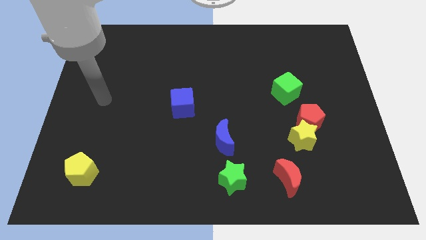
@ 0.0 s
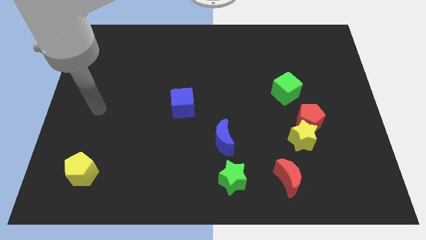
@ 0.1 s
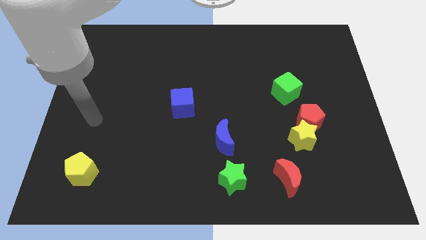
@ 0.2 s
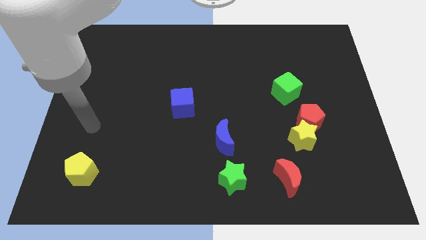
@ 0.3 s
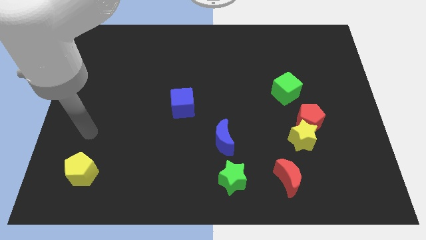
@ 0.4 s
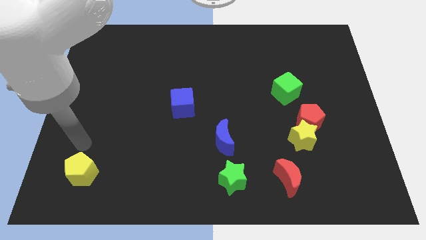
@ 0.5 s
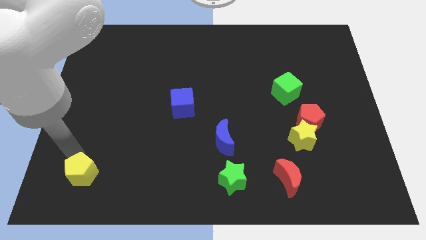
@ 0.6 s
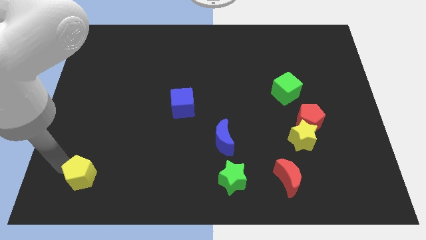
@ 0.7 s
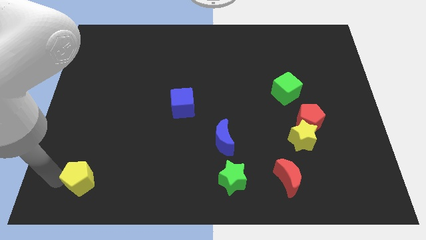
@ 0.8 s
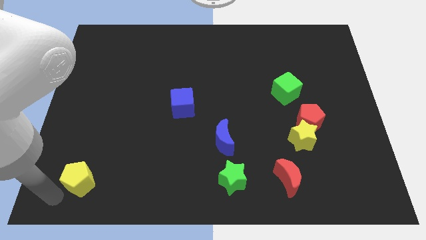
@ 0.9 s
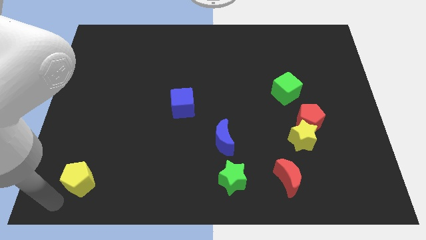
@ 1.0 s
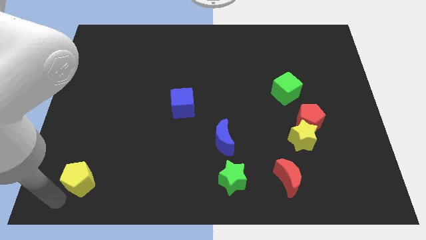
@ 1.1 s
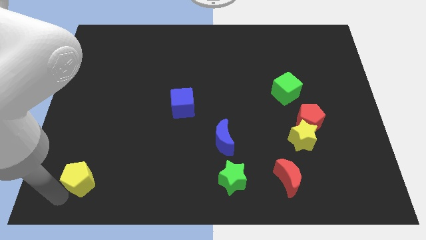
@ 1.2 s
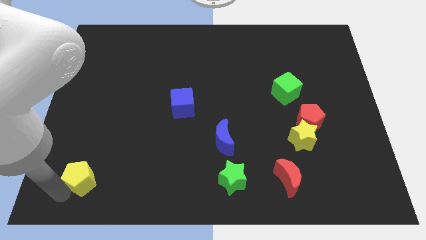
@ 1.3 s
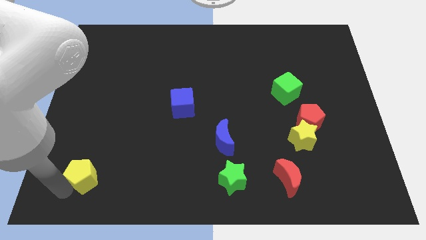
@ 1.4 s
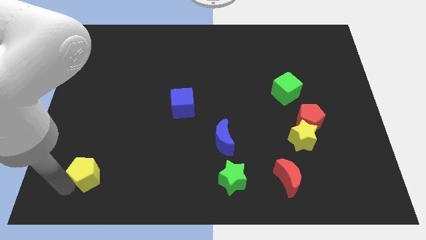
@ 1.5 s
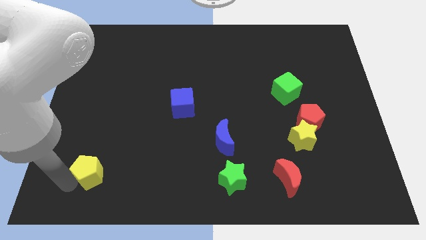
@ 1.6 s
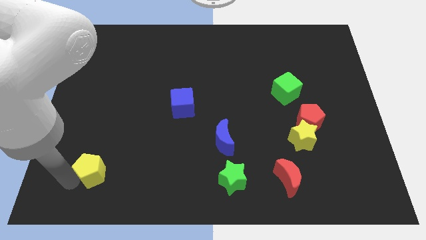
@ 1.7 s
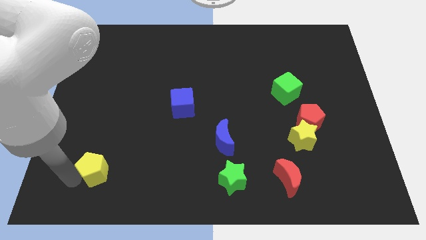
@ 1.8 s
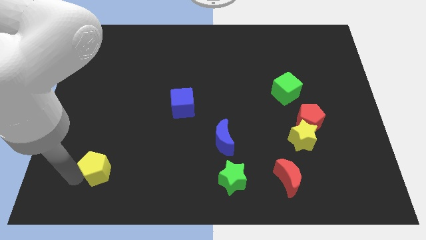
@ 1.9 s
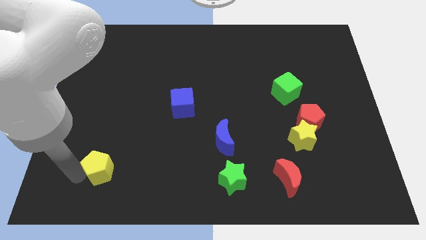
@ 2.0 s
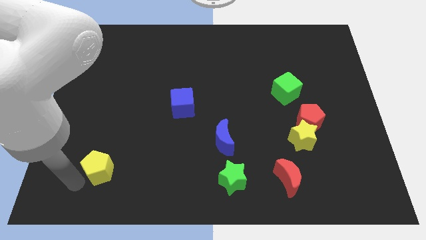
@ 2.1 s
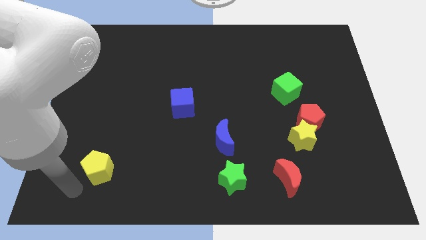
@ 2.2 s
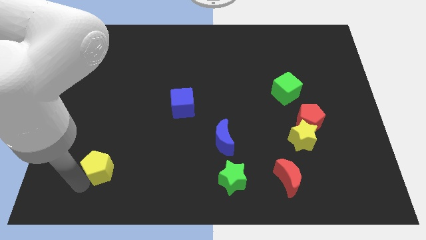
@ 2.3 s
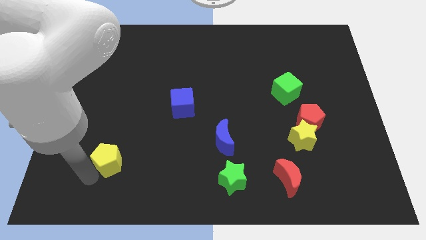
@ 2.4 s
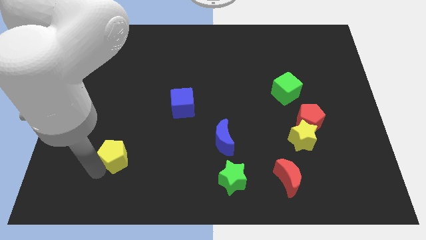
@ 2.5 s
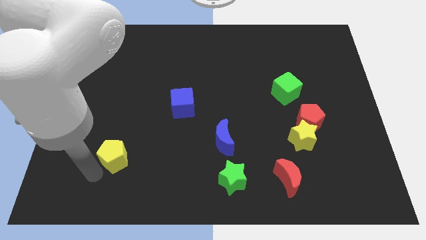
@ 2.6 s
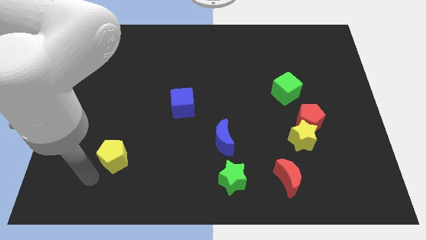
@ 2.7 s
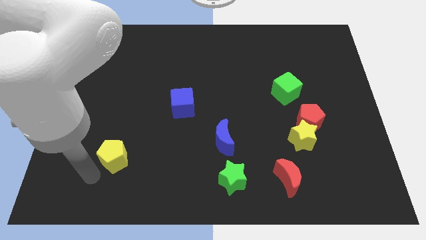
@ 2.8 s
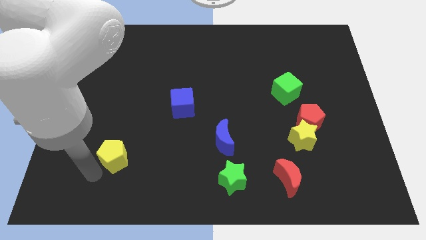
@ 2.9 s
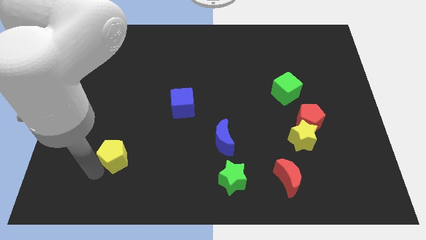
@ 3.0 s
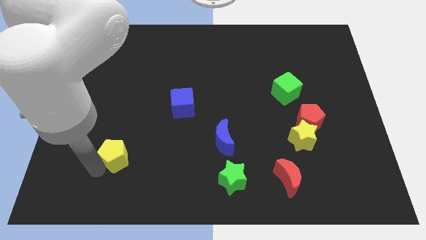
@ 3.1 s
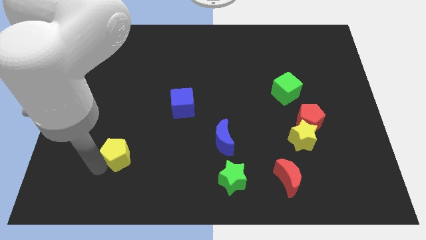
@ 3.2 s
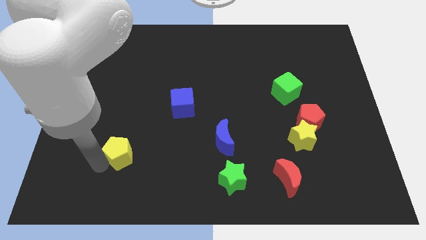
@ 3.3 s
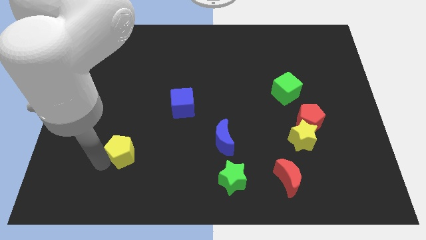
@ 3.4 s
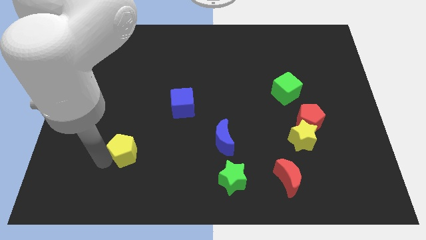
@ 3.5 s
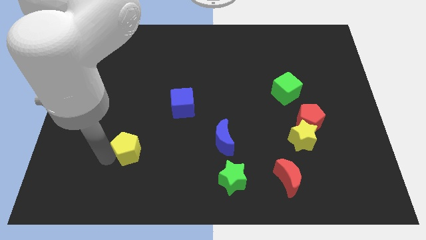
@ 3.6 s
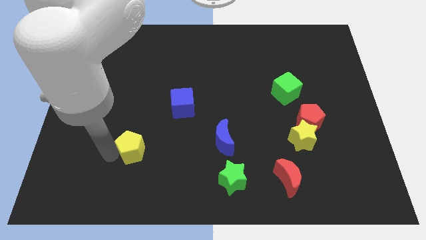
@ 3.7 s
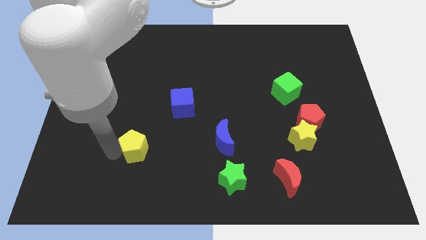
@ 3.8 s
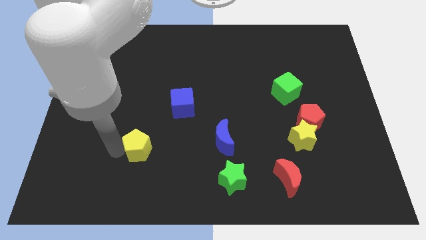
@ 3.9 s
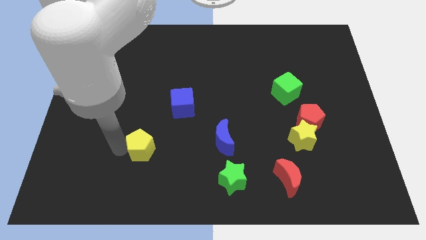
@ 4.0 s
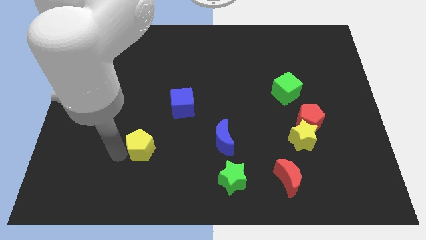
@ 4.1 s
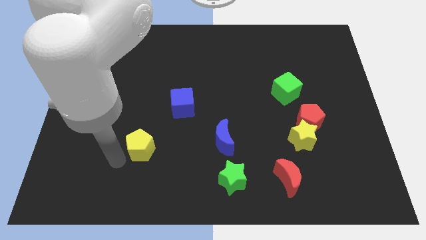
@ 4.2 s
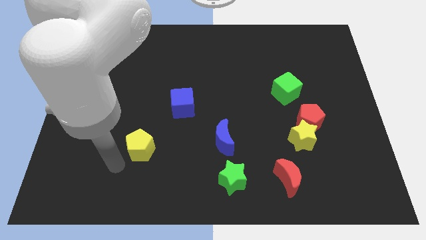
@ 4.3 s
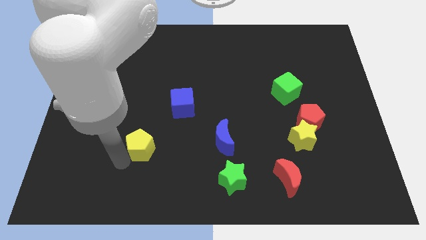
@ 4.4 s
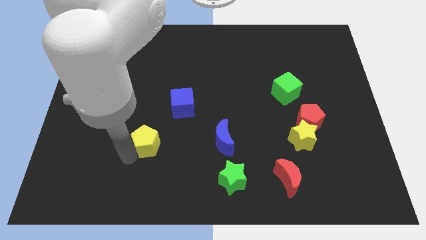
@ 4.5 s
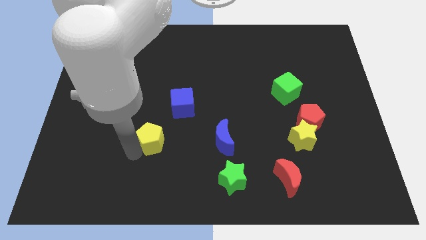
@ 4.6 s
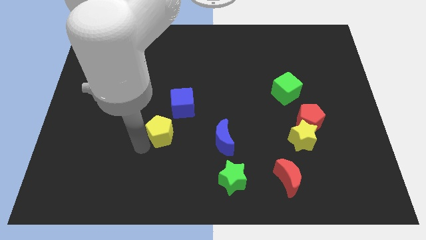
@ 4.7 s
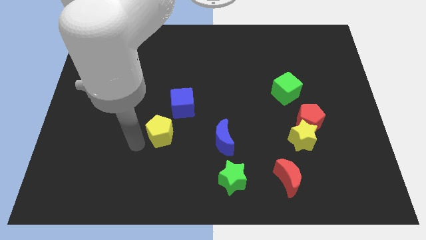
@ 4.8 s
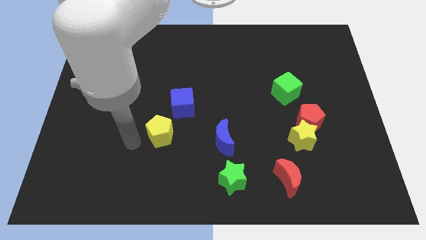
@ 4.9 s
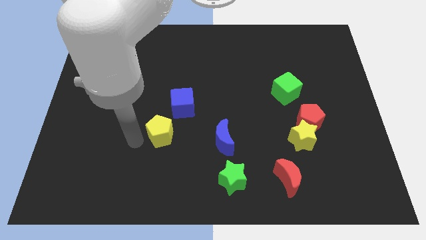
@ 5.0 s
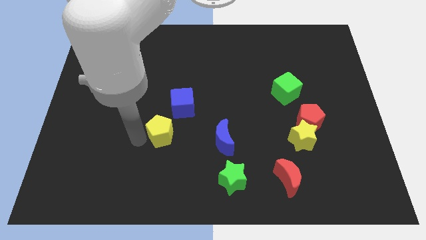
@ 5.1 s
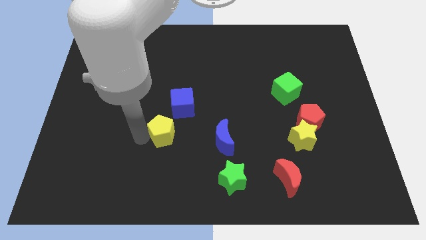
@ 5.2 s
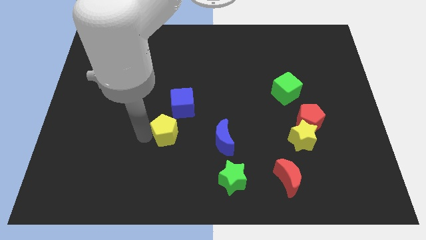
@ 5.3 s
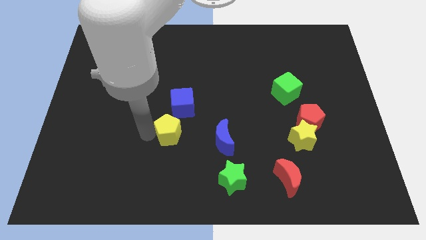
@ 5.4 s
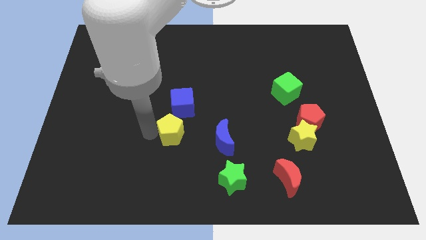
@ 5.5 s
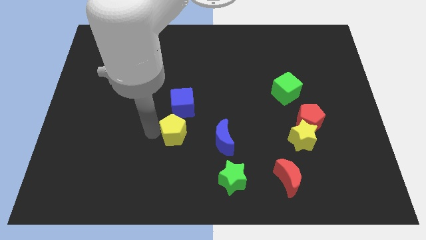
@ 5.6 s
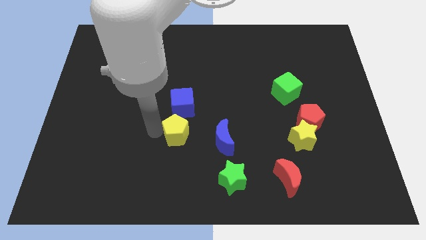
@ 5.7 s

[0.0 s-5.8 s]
put the yellow pentagon to the center

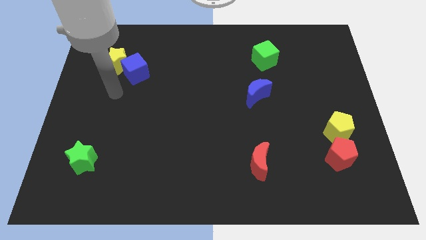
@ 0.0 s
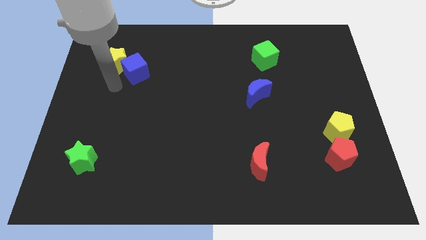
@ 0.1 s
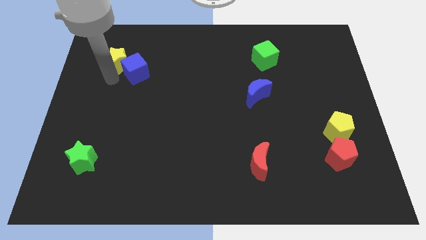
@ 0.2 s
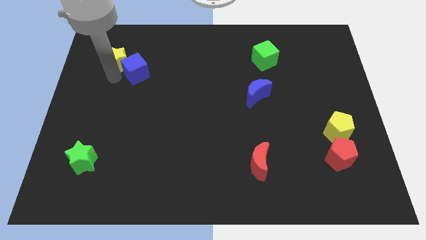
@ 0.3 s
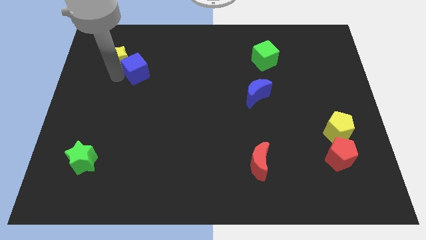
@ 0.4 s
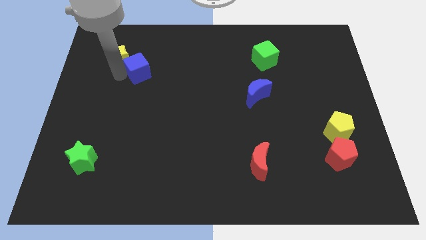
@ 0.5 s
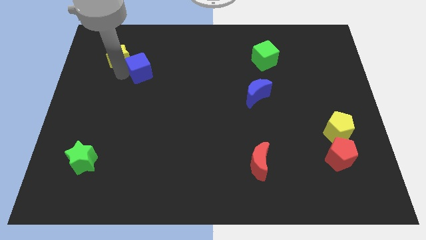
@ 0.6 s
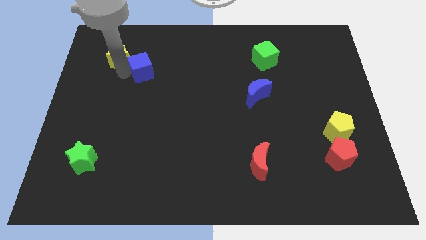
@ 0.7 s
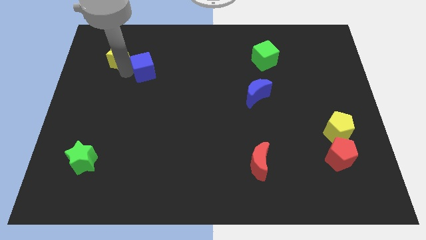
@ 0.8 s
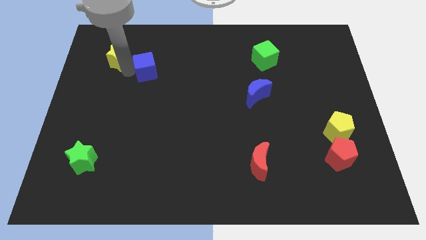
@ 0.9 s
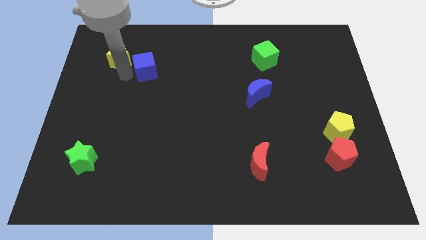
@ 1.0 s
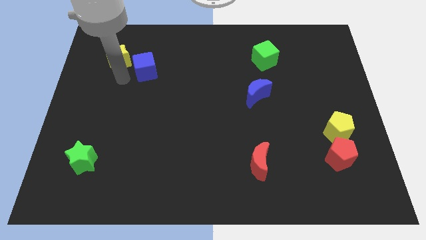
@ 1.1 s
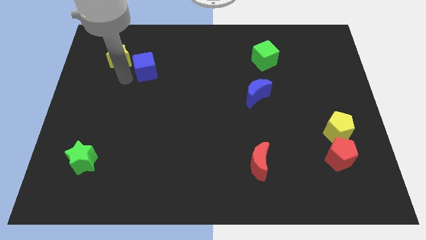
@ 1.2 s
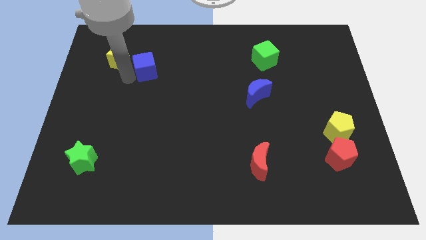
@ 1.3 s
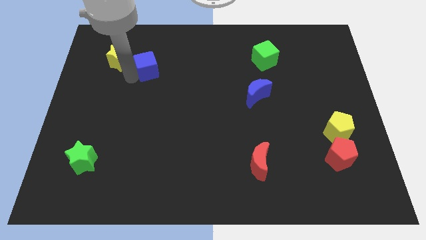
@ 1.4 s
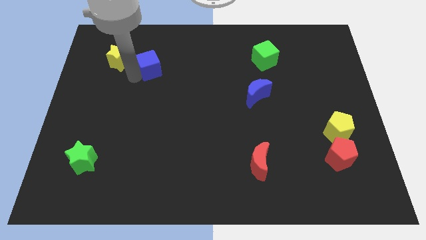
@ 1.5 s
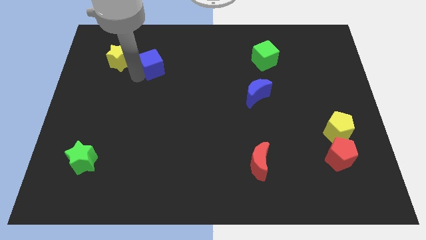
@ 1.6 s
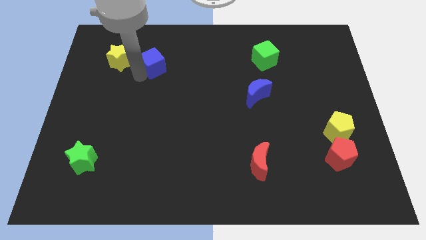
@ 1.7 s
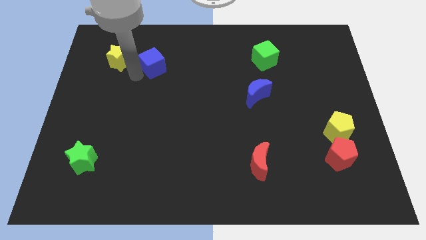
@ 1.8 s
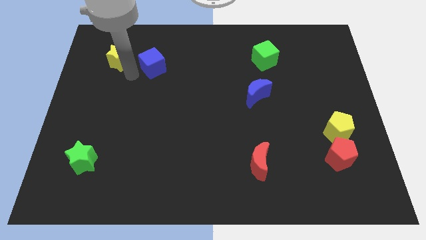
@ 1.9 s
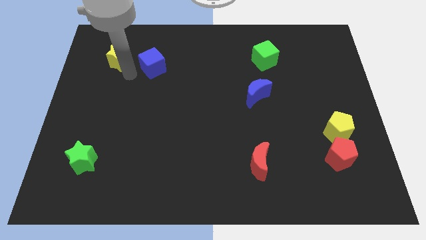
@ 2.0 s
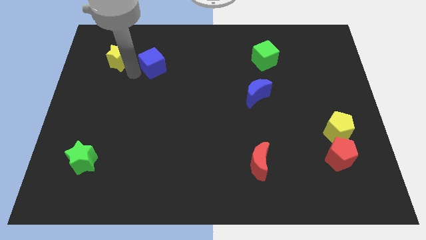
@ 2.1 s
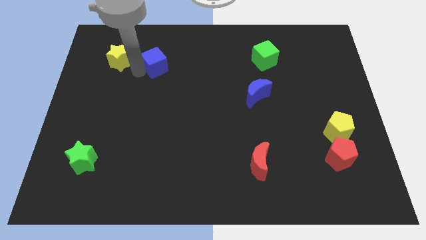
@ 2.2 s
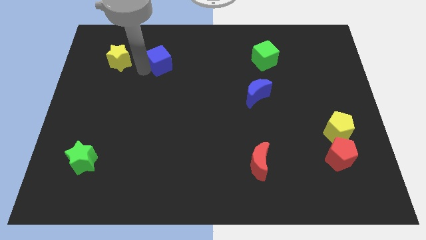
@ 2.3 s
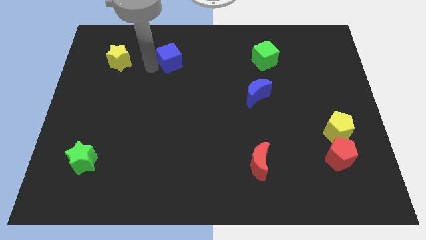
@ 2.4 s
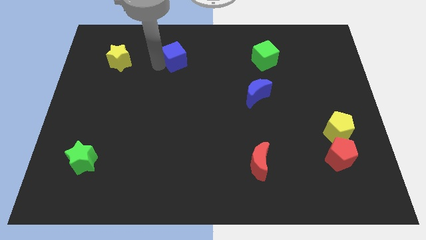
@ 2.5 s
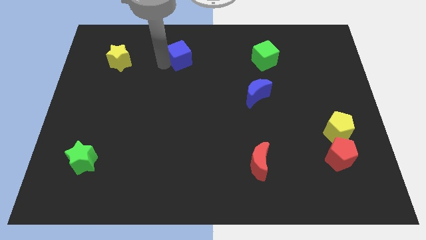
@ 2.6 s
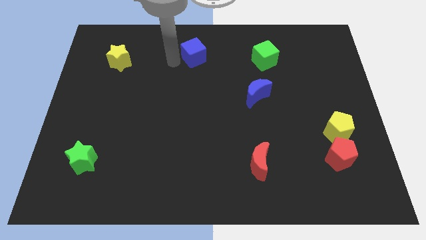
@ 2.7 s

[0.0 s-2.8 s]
slide the blue cube to the top
